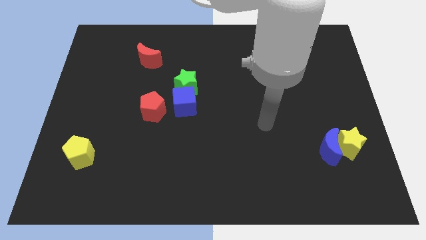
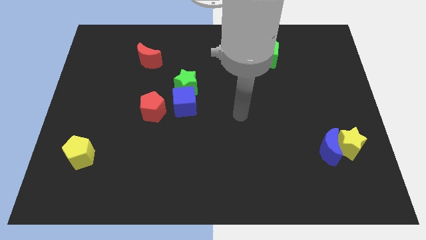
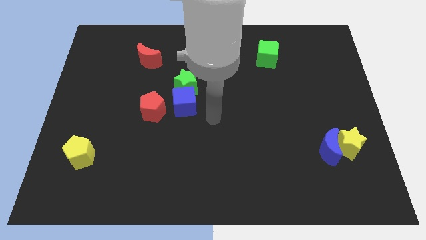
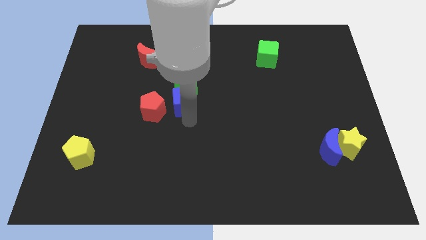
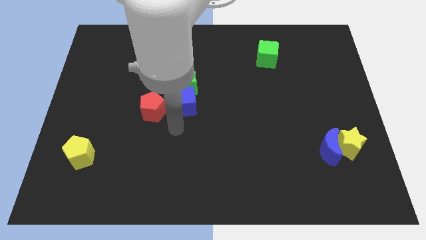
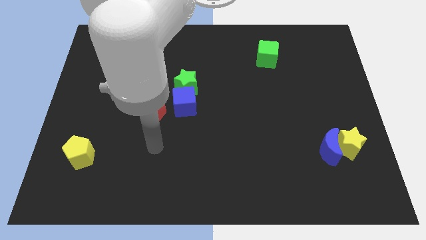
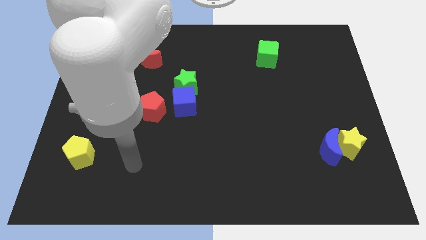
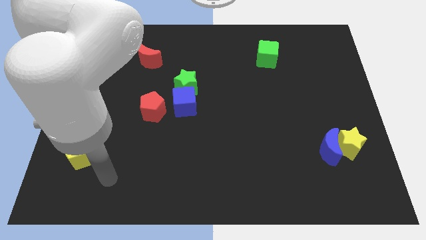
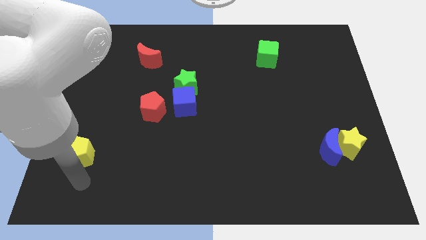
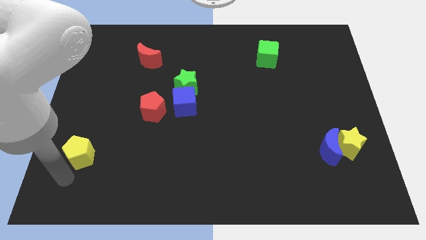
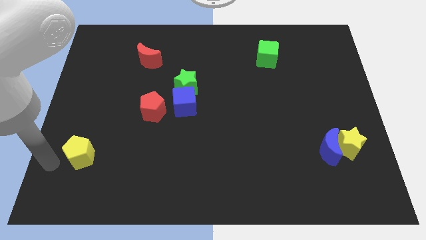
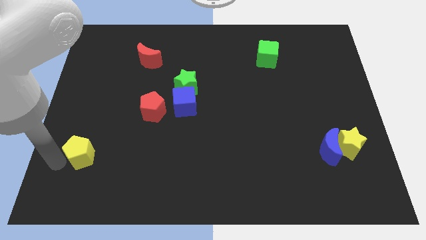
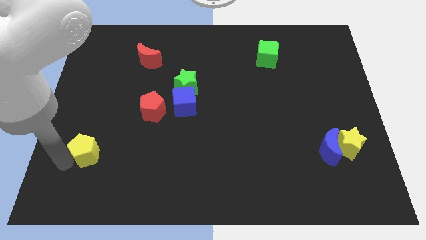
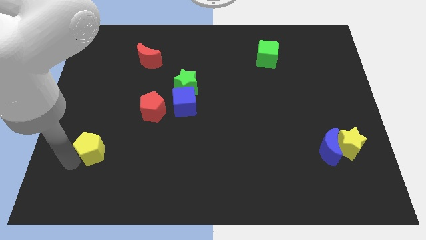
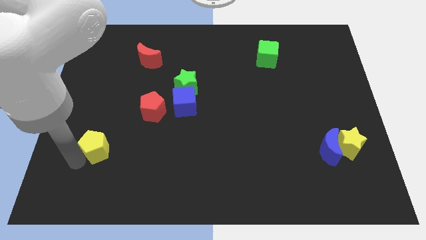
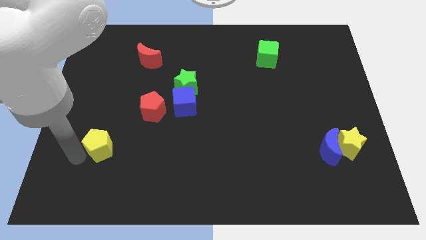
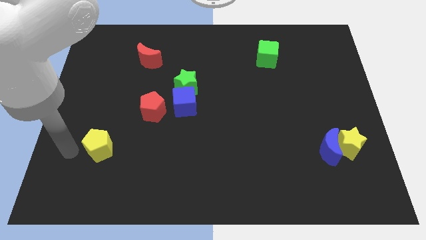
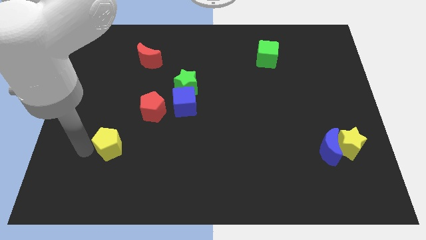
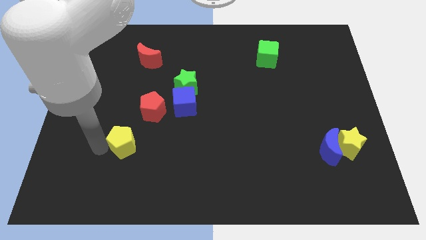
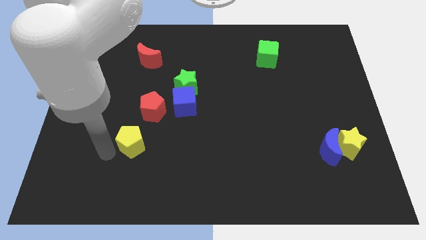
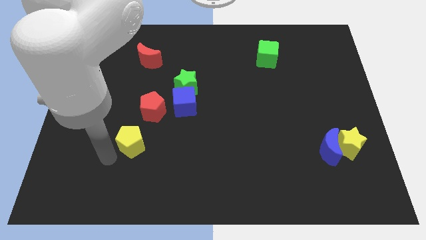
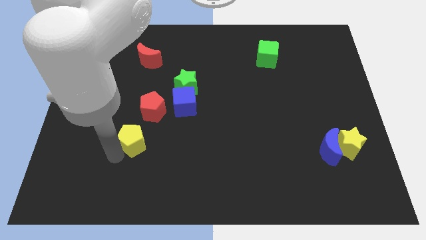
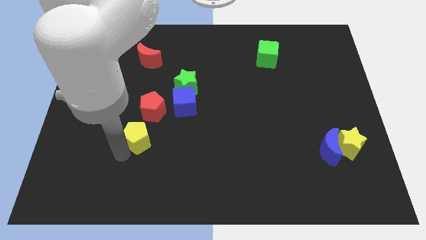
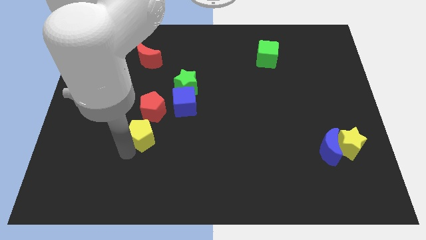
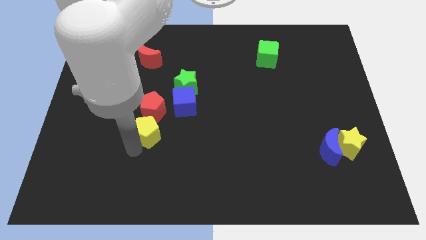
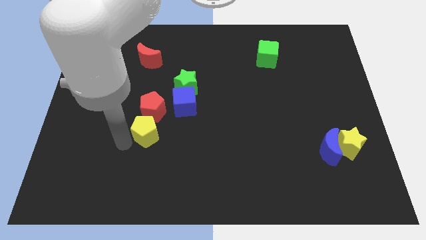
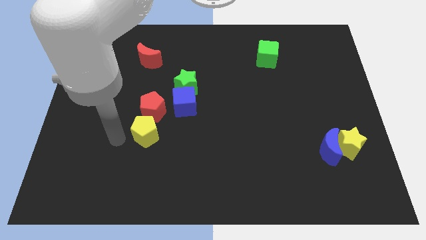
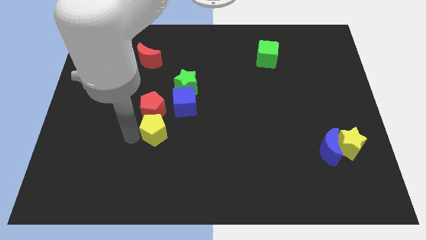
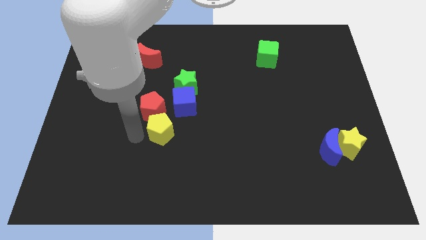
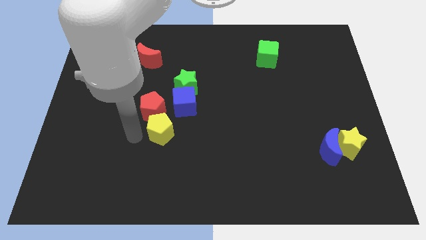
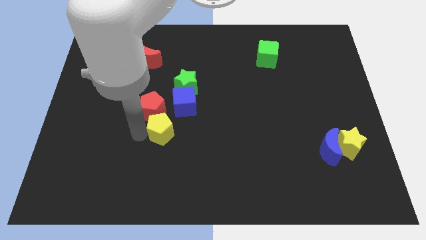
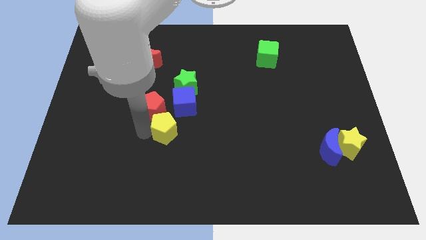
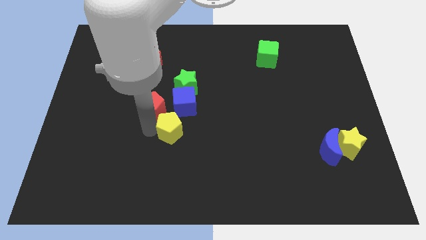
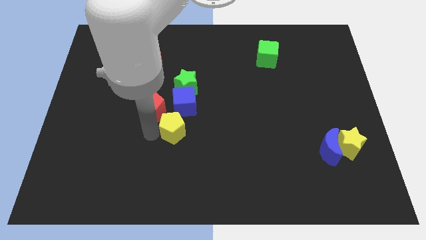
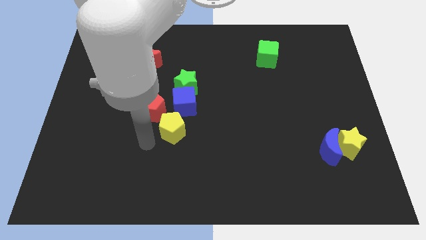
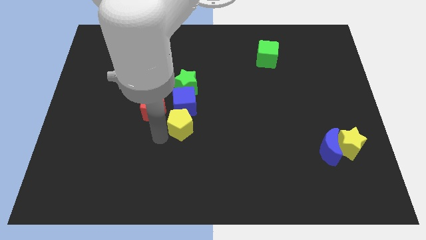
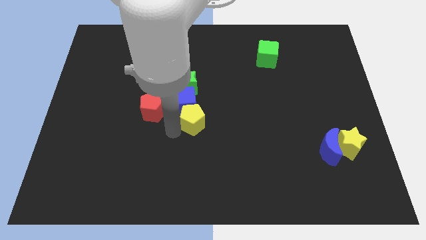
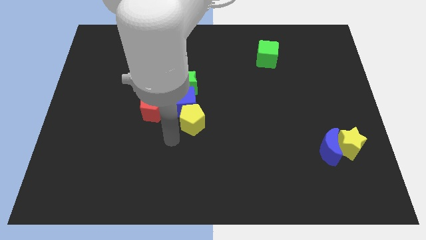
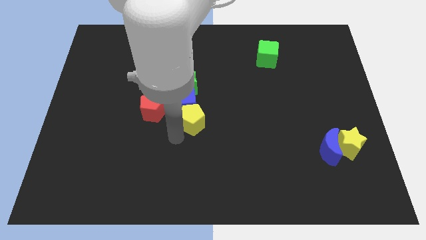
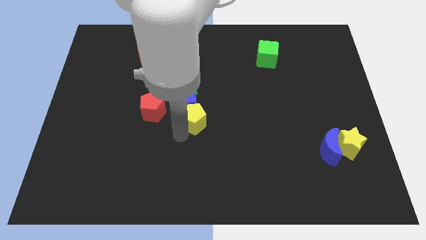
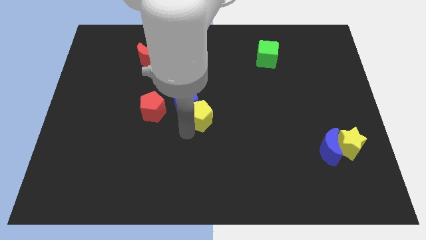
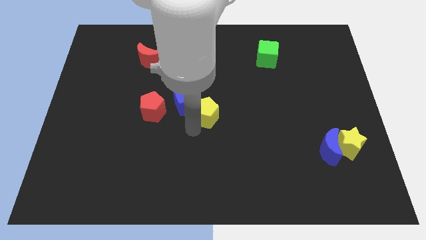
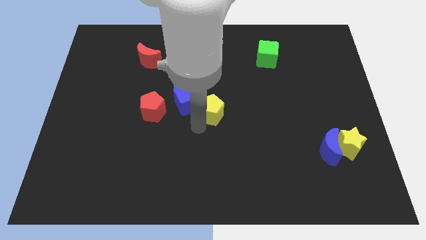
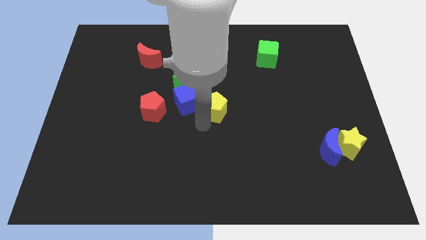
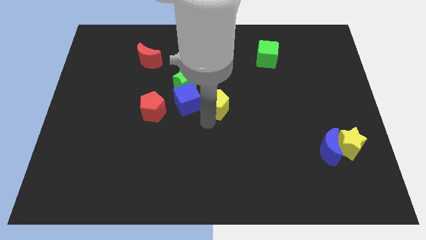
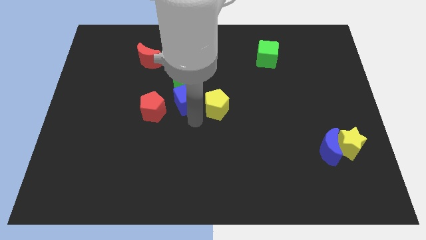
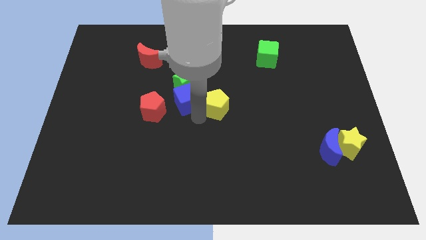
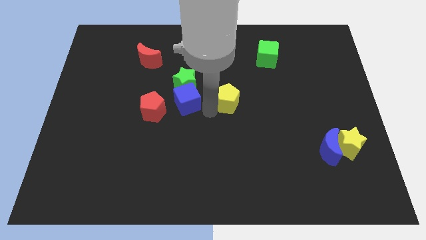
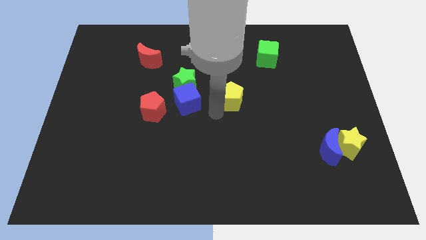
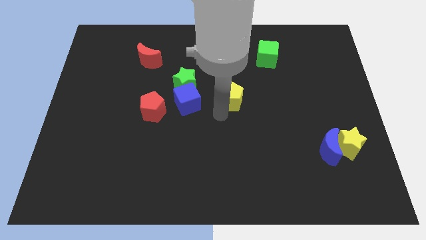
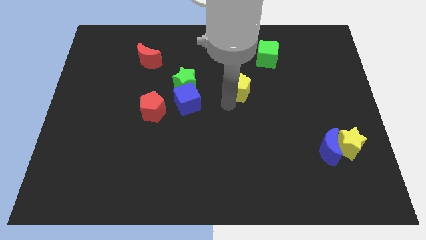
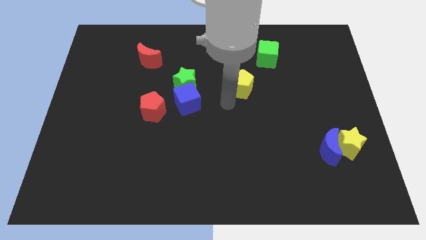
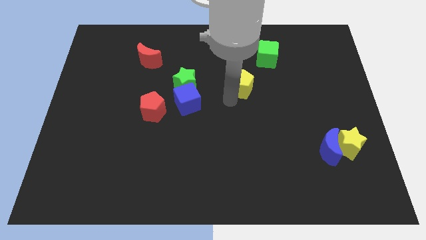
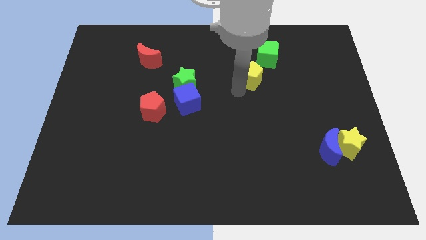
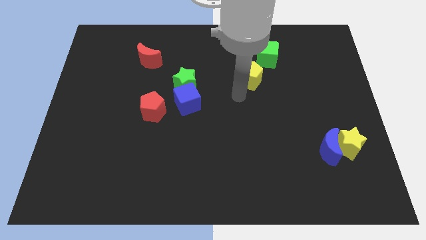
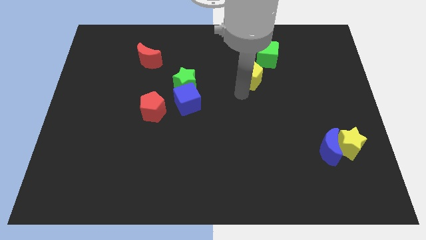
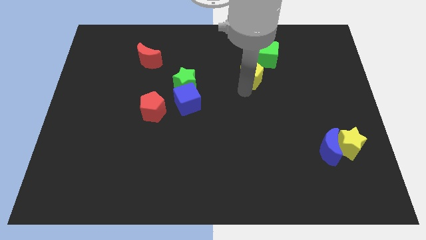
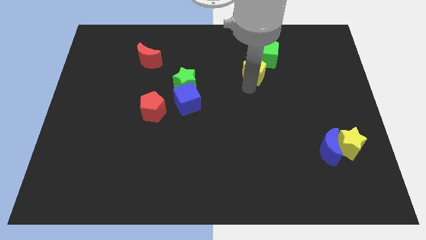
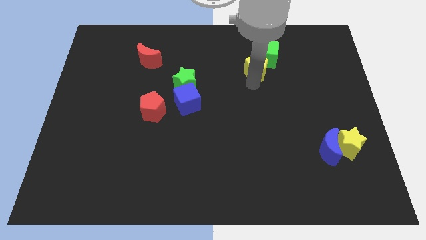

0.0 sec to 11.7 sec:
push the yellow pentagon towards the green cube
